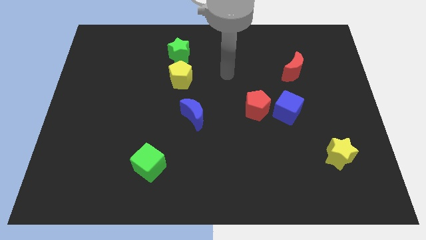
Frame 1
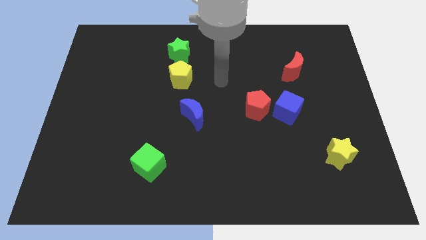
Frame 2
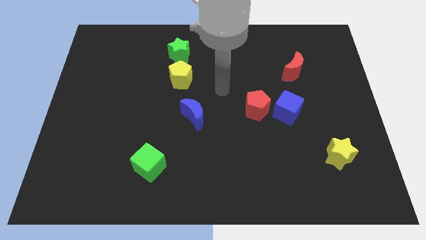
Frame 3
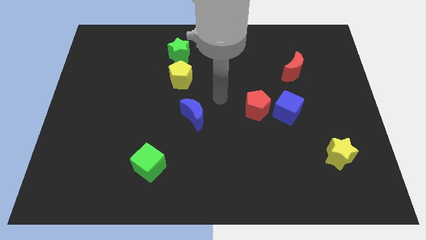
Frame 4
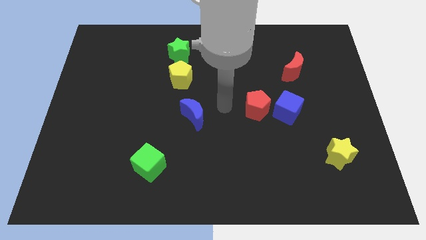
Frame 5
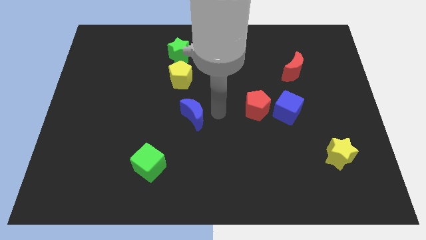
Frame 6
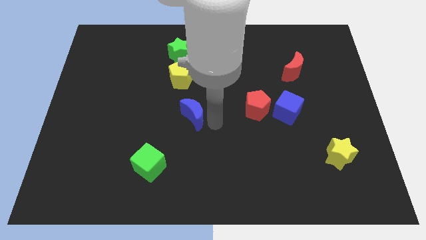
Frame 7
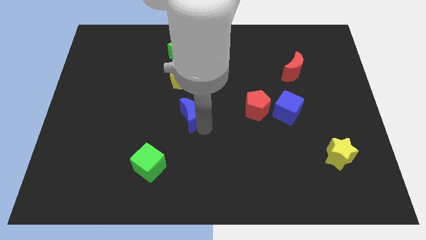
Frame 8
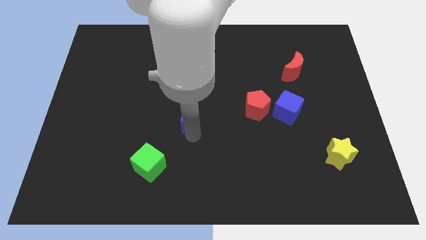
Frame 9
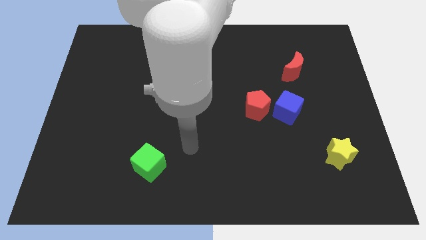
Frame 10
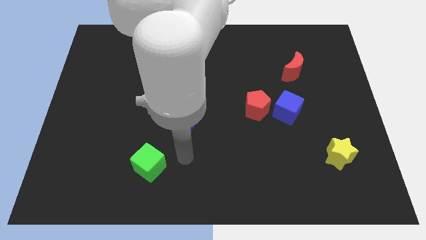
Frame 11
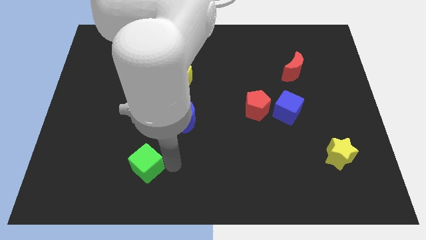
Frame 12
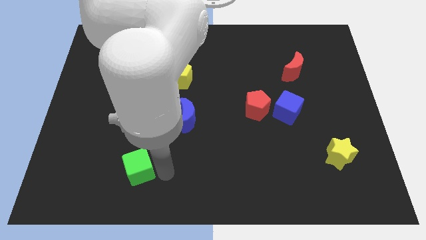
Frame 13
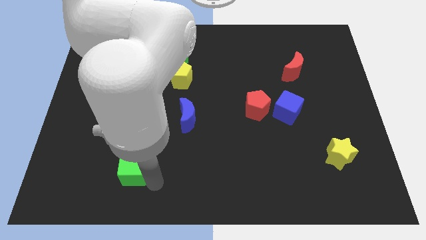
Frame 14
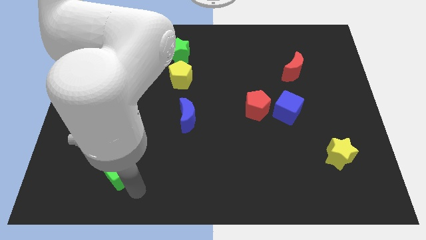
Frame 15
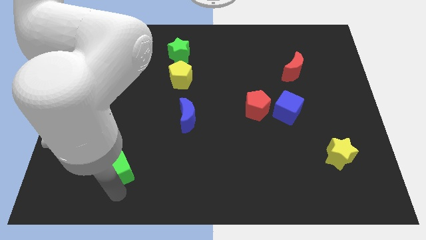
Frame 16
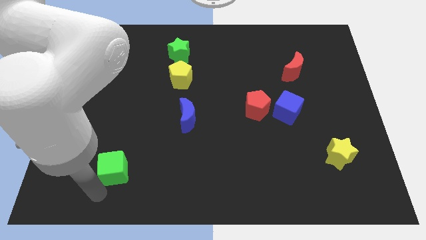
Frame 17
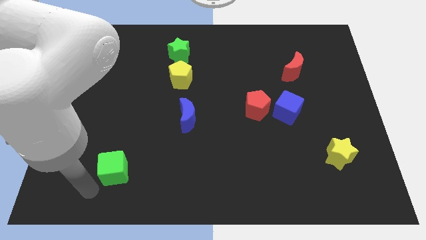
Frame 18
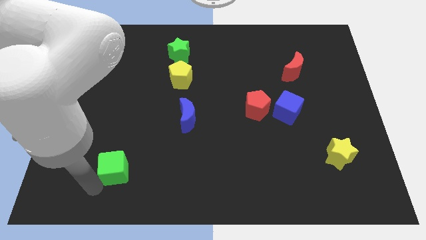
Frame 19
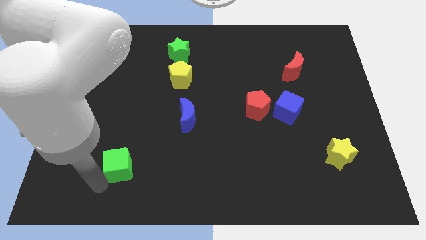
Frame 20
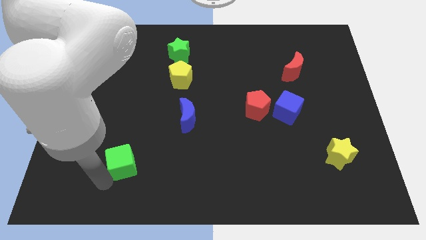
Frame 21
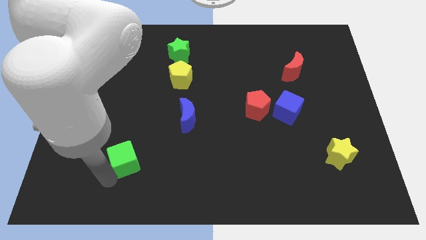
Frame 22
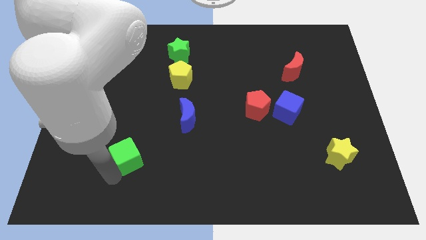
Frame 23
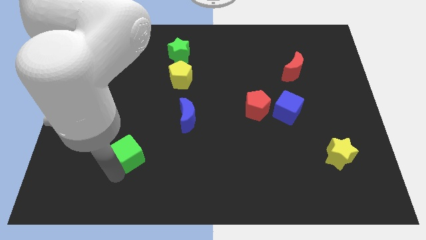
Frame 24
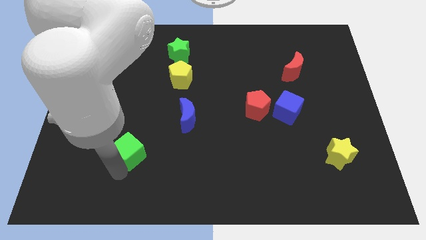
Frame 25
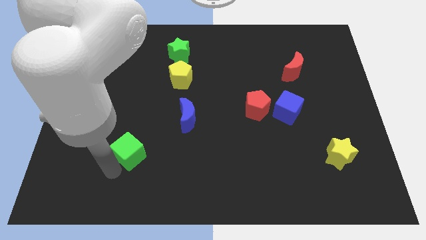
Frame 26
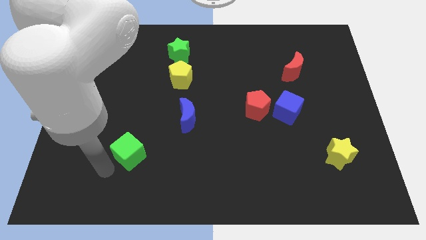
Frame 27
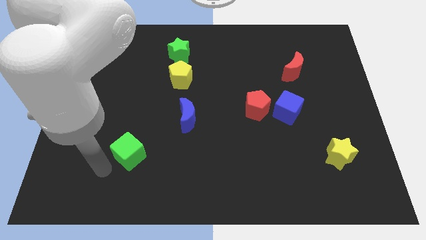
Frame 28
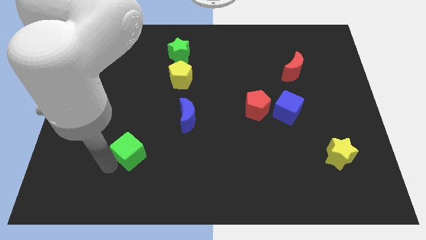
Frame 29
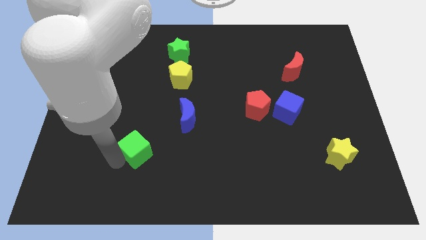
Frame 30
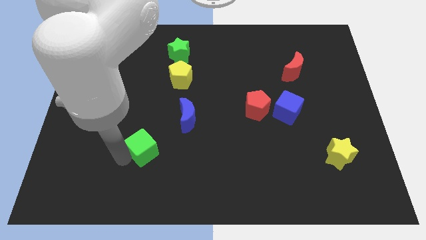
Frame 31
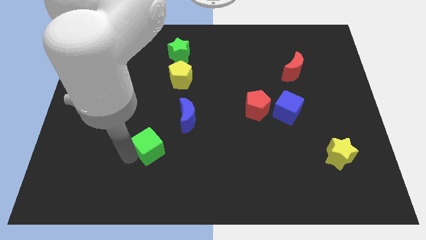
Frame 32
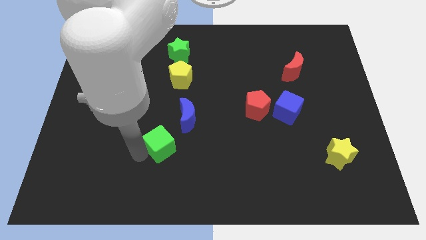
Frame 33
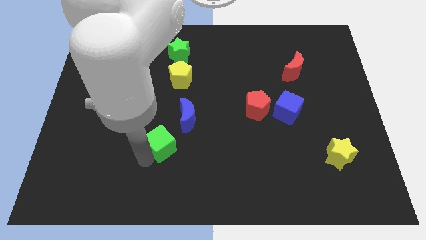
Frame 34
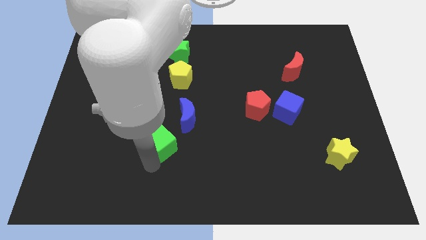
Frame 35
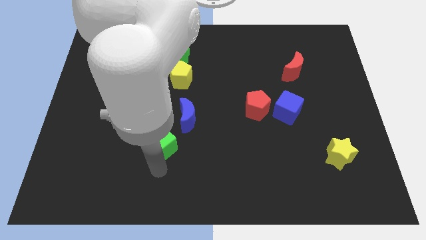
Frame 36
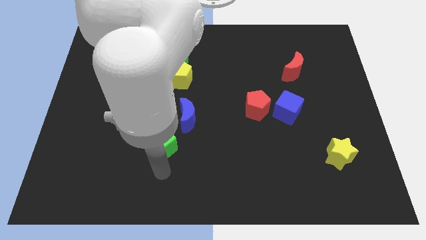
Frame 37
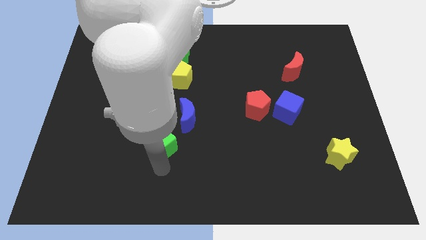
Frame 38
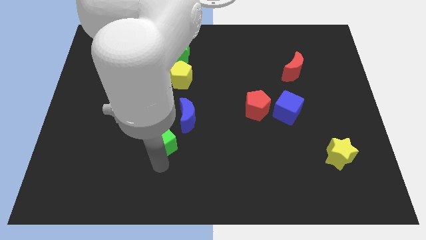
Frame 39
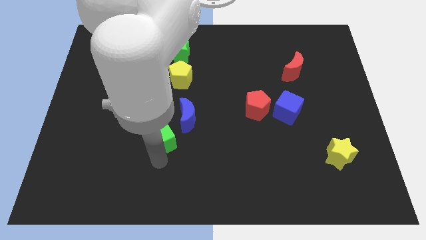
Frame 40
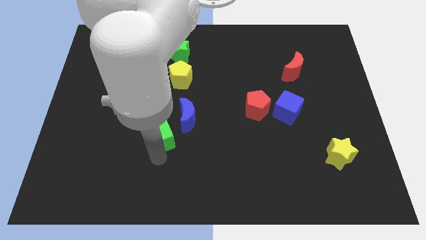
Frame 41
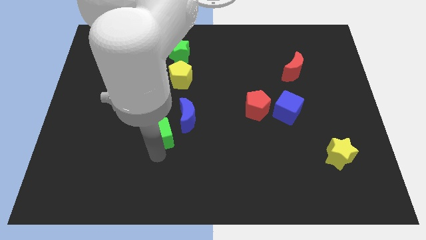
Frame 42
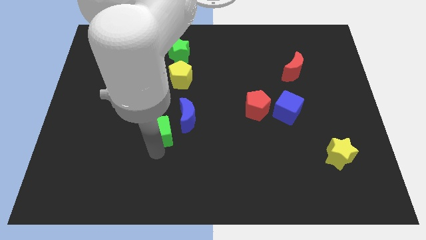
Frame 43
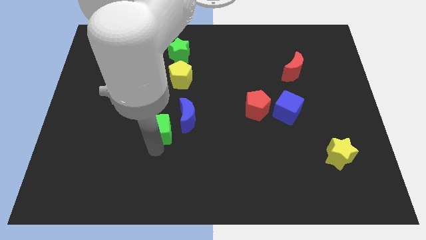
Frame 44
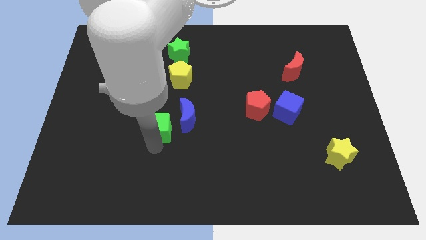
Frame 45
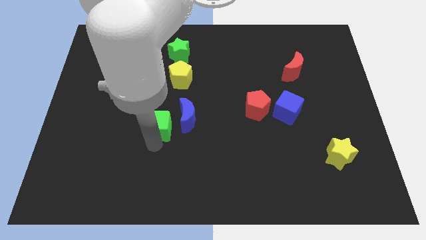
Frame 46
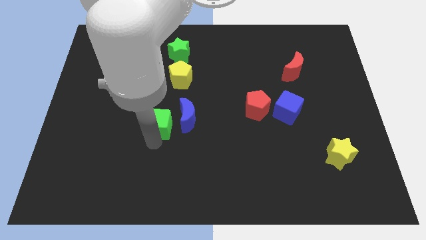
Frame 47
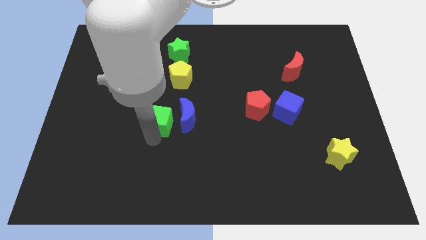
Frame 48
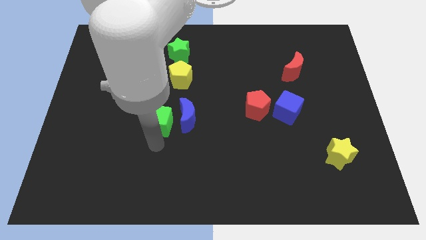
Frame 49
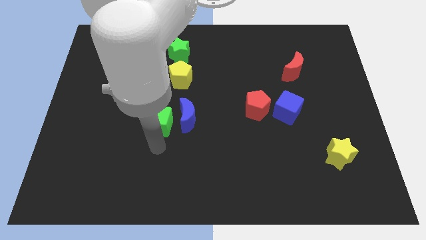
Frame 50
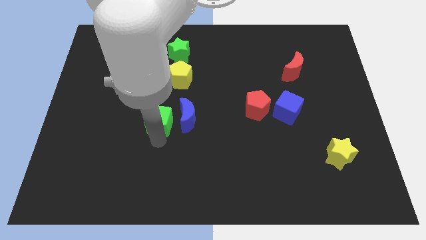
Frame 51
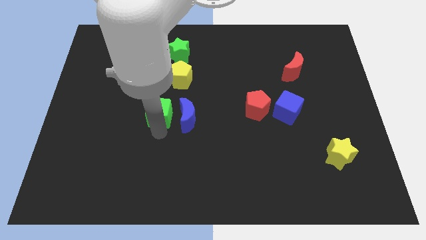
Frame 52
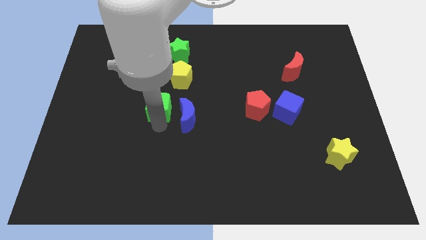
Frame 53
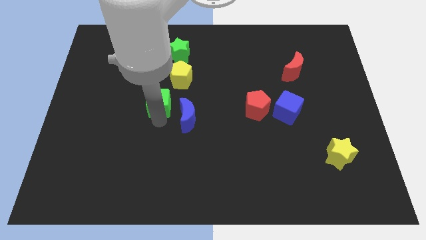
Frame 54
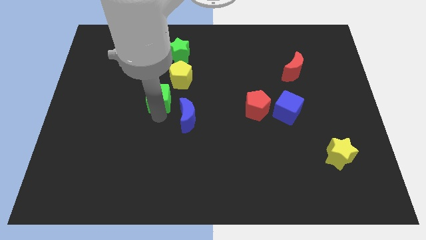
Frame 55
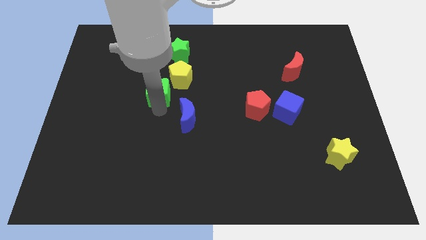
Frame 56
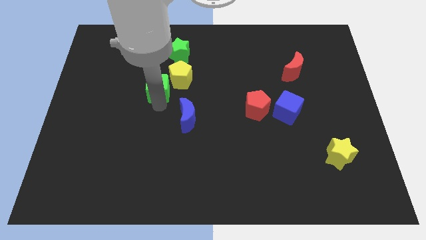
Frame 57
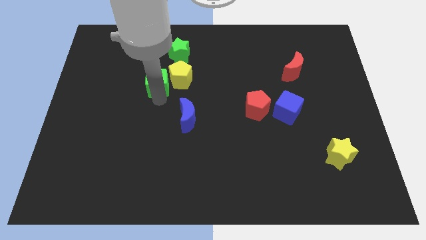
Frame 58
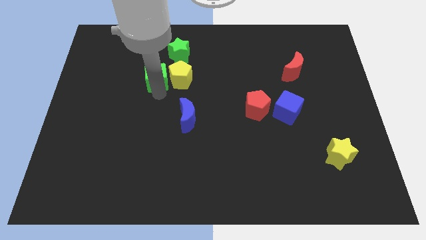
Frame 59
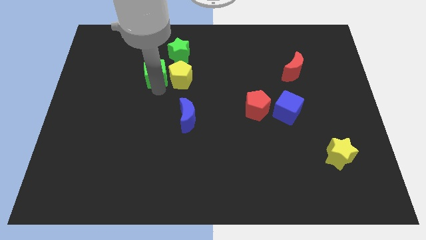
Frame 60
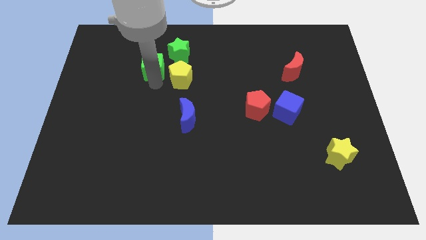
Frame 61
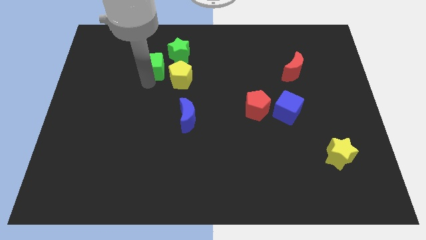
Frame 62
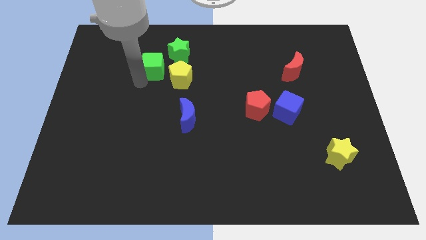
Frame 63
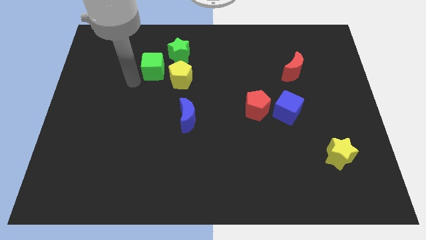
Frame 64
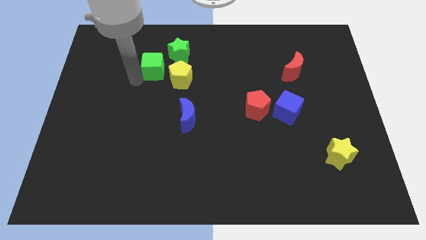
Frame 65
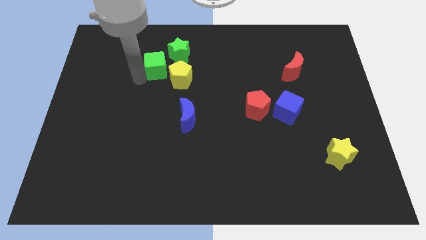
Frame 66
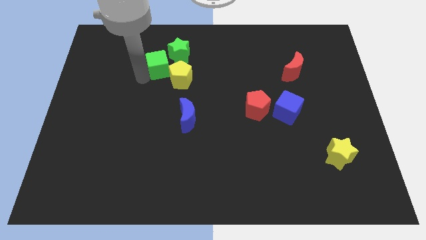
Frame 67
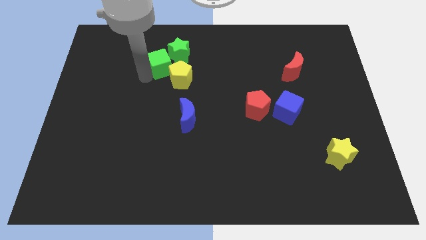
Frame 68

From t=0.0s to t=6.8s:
slide the green cube to the green star

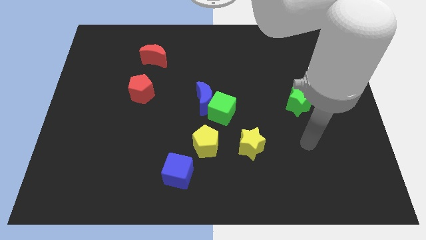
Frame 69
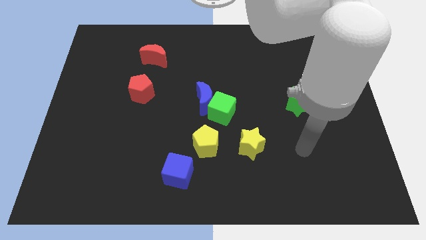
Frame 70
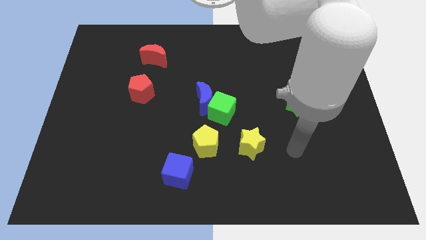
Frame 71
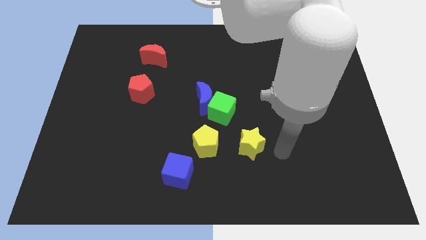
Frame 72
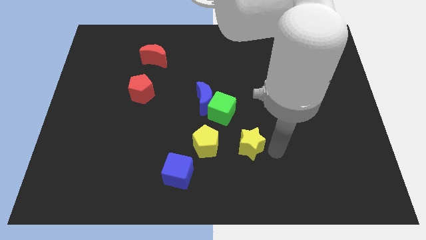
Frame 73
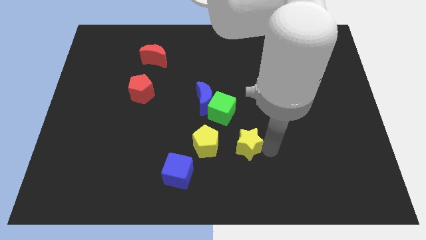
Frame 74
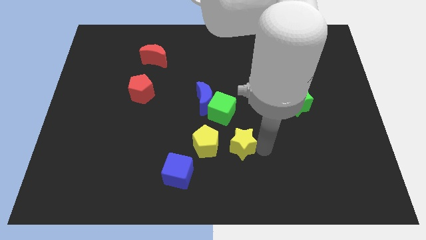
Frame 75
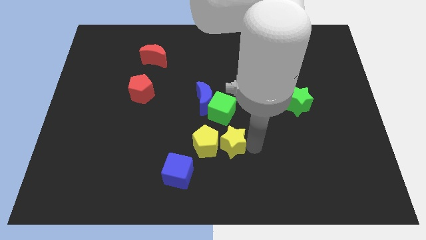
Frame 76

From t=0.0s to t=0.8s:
slide the yellow star to the yellow pentagon
